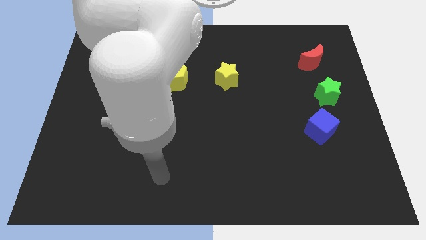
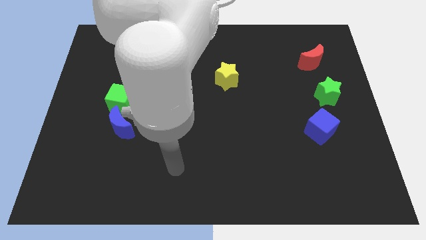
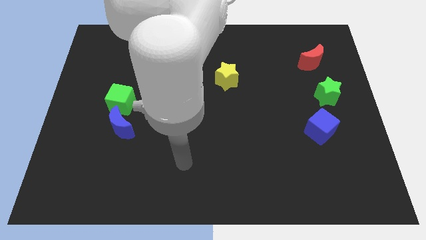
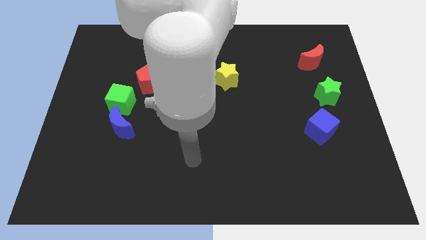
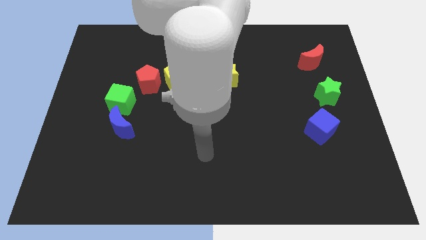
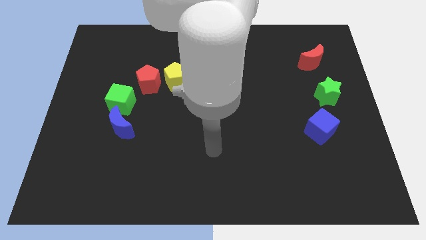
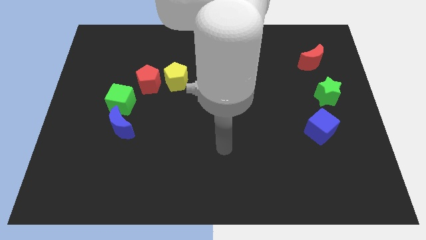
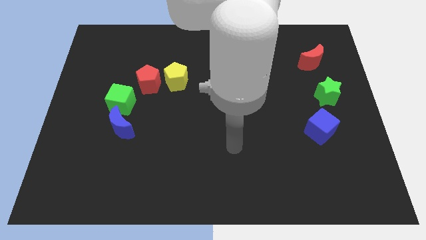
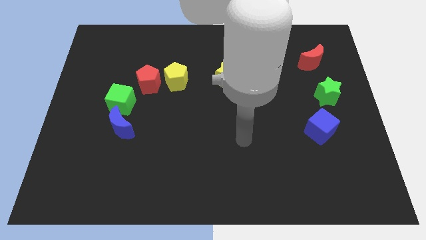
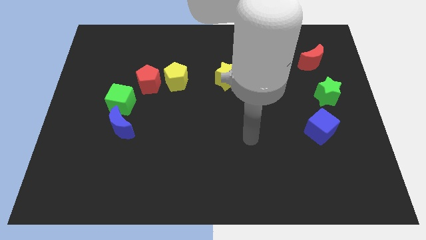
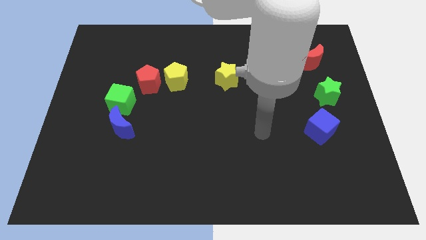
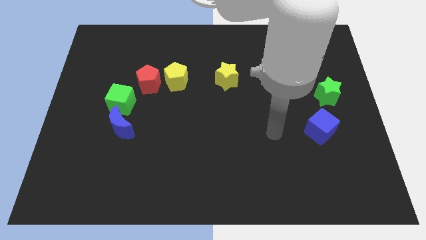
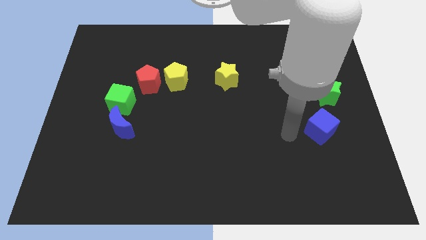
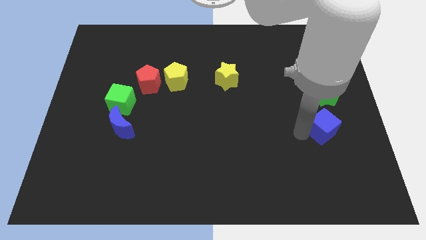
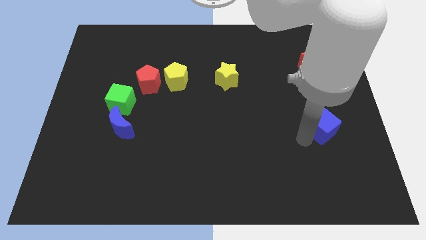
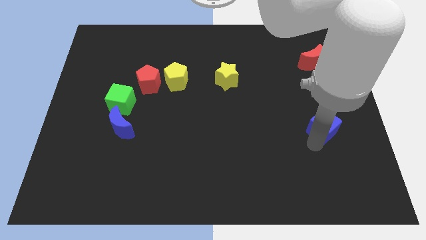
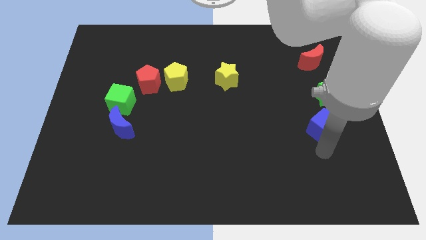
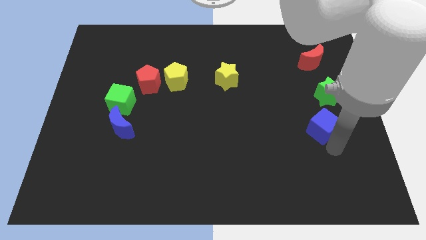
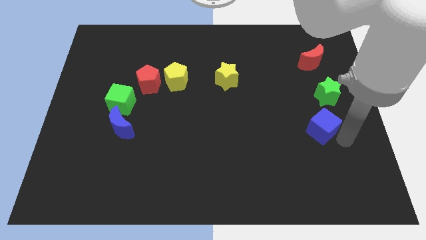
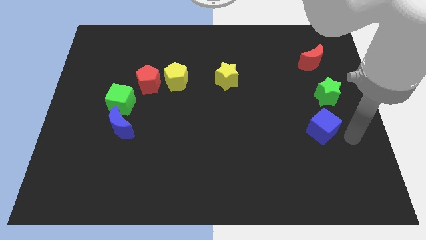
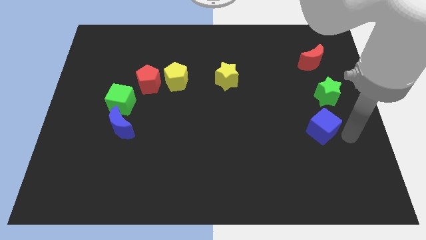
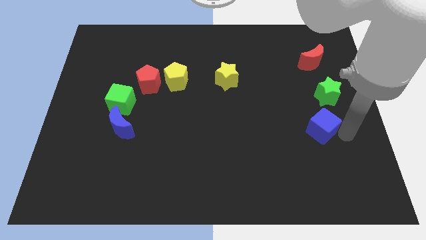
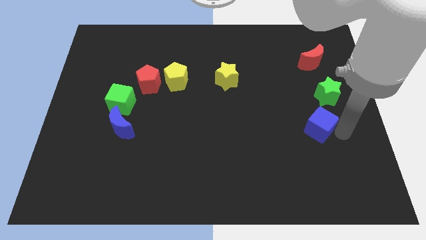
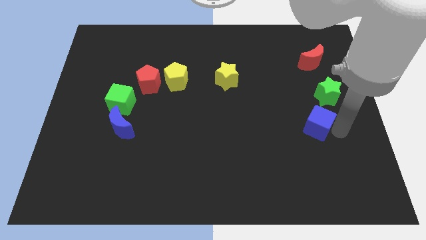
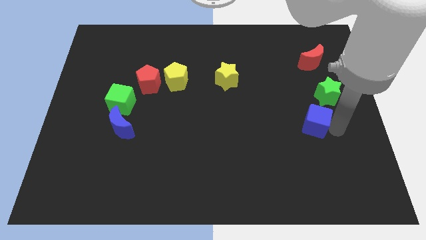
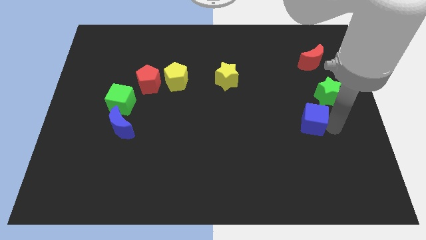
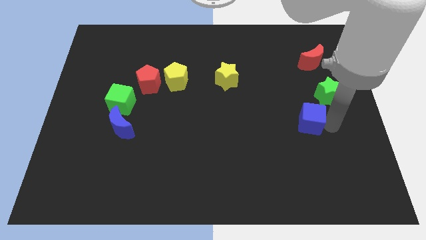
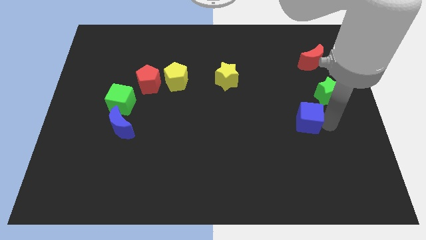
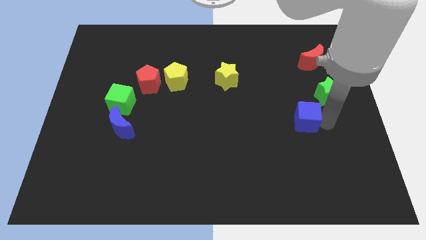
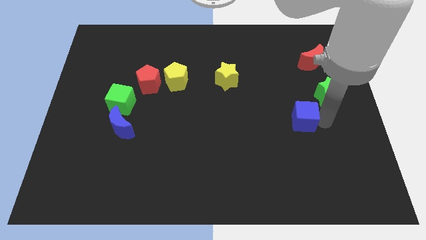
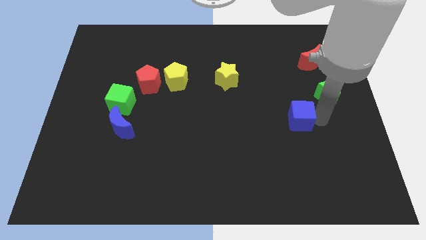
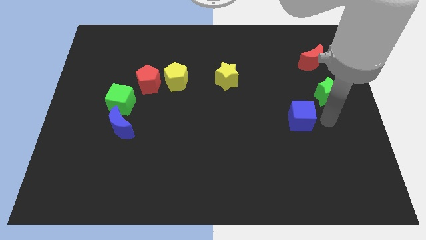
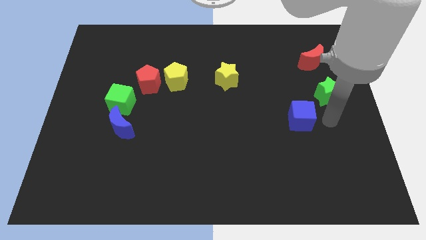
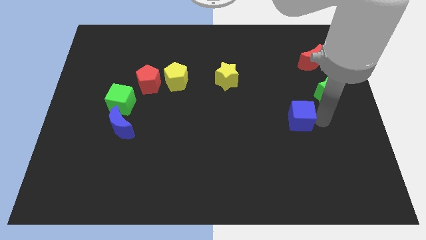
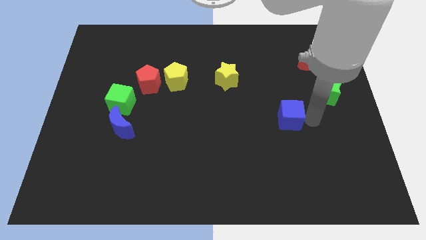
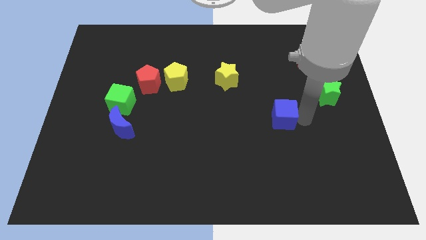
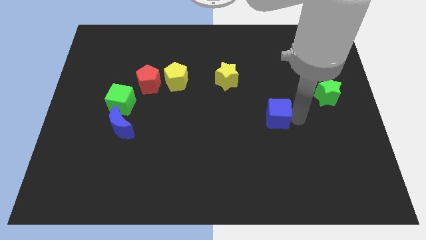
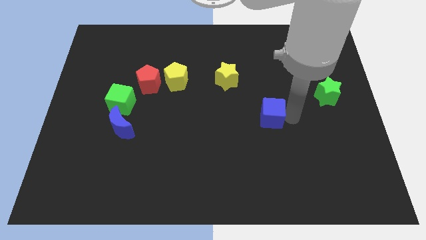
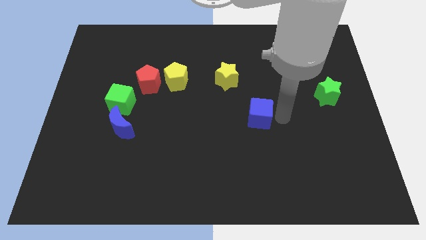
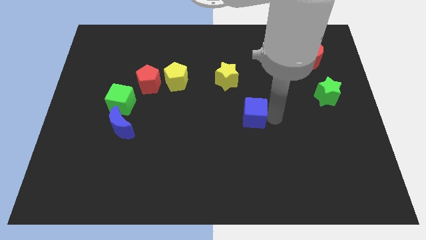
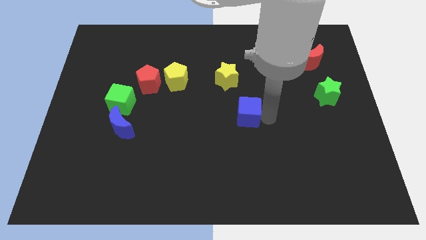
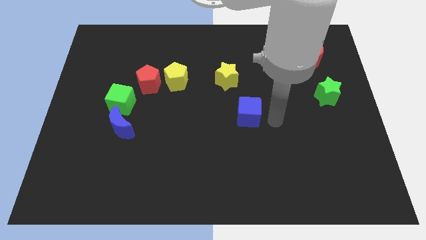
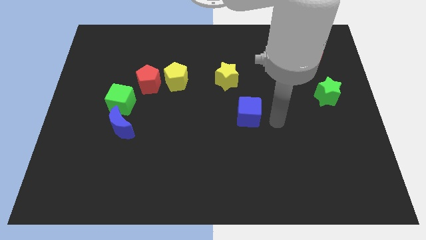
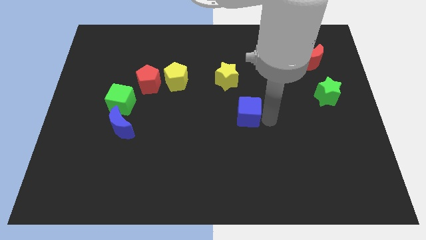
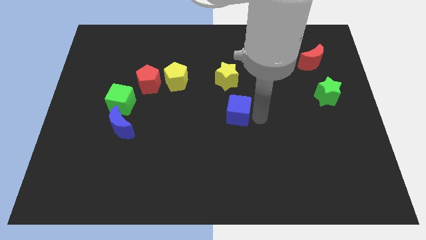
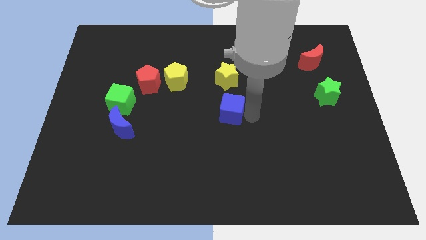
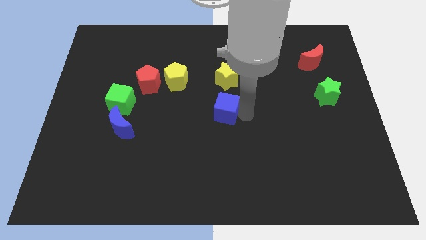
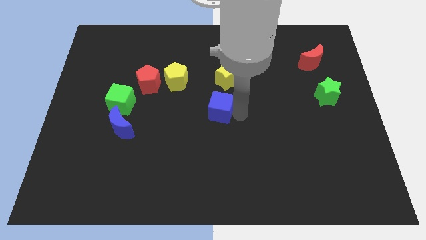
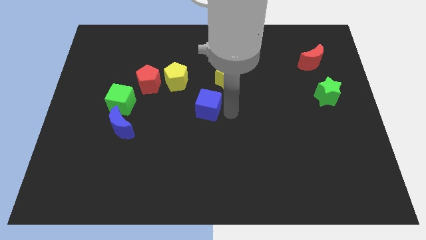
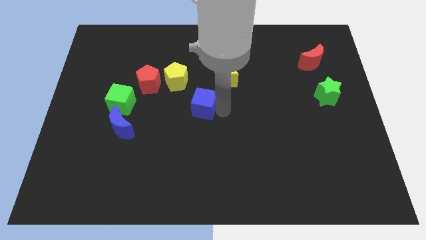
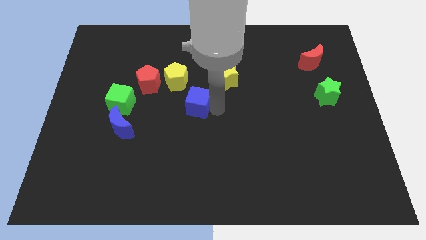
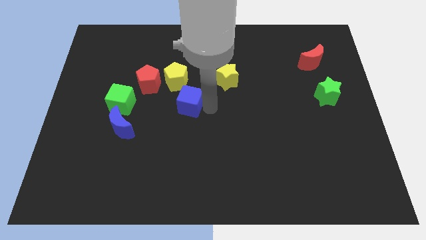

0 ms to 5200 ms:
put the blue cube diagonally down and to the right of the red pentagon

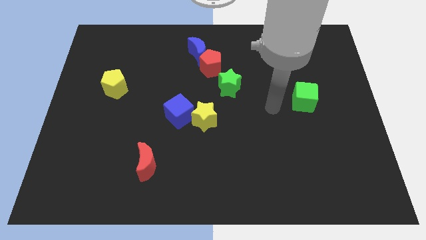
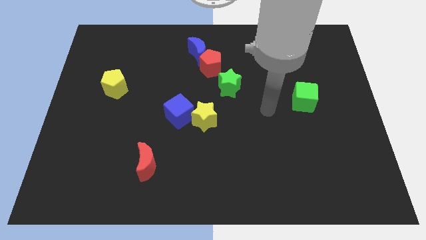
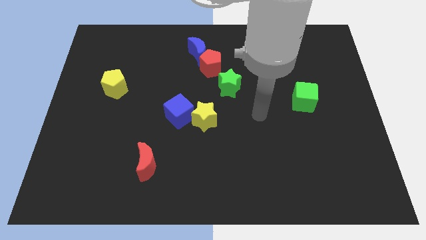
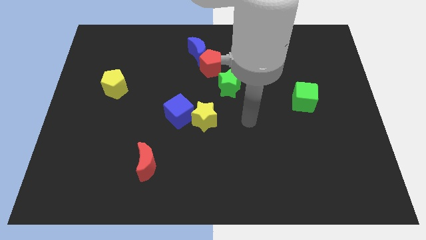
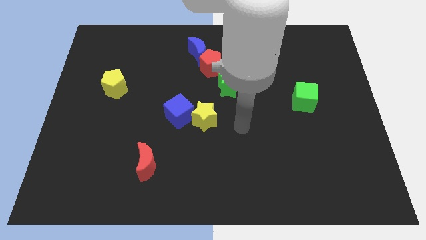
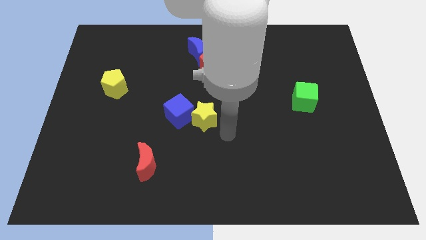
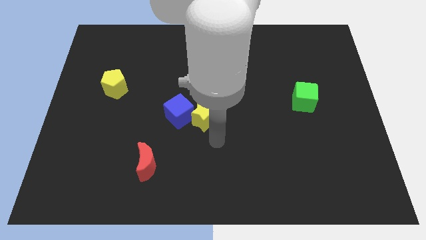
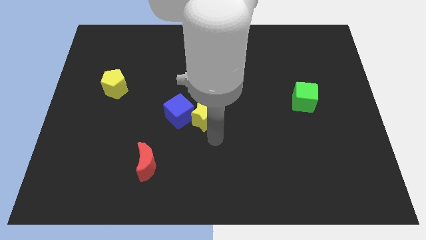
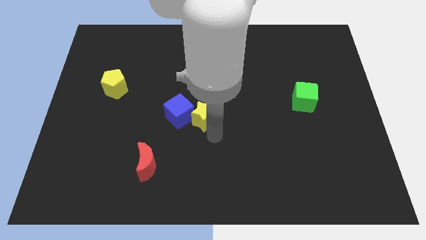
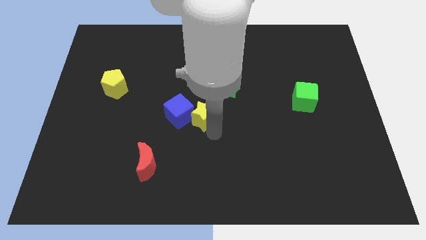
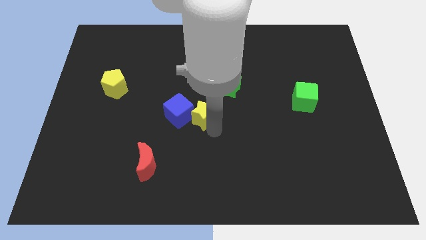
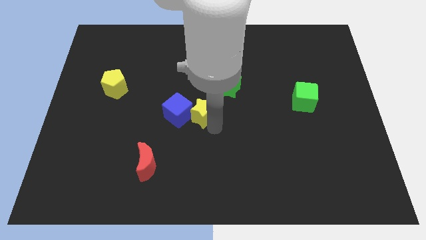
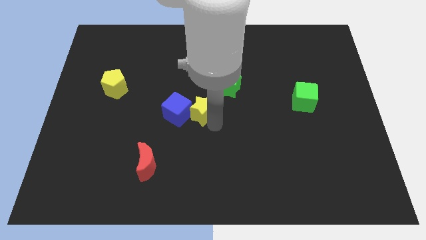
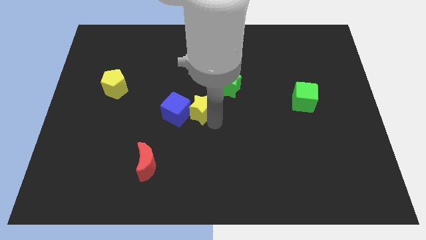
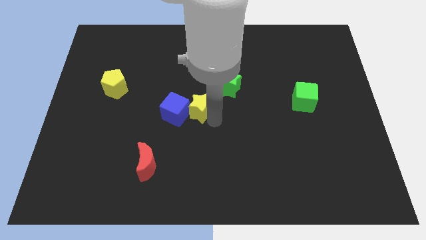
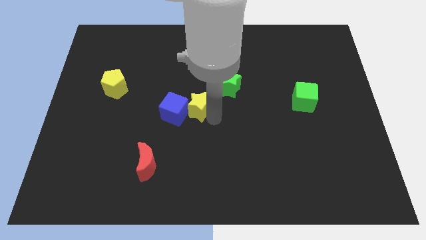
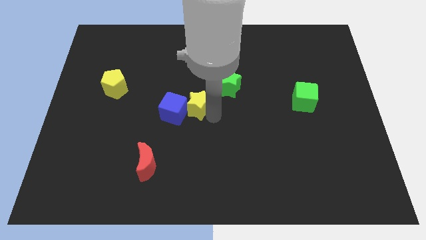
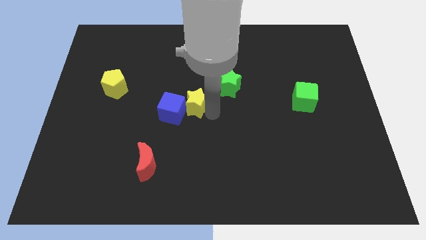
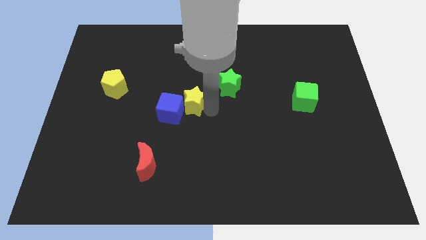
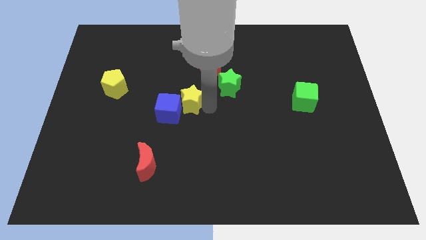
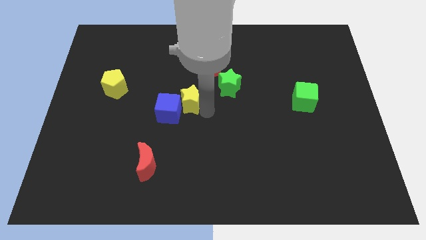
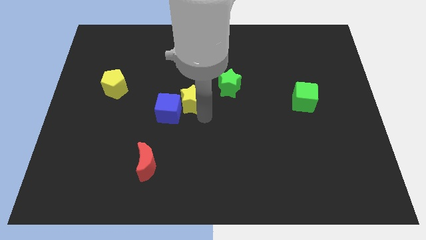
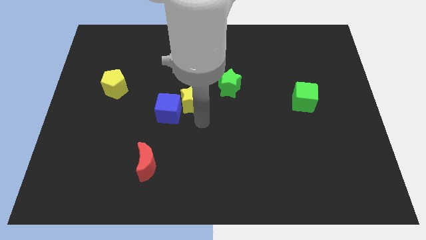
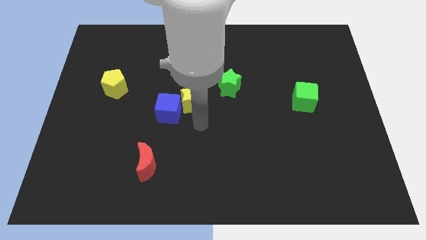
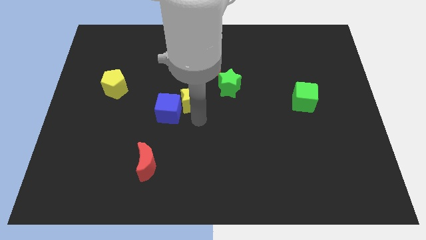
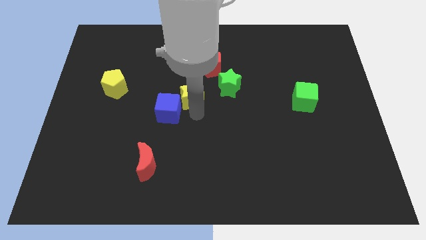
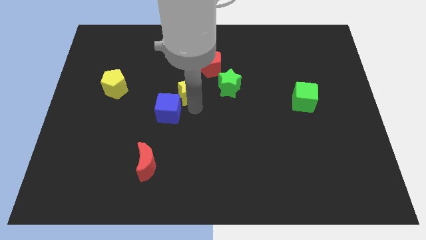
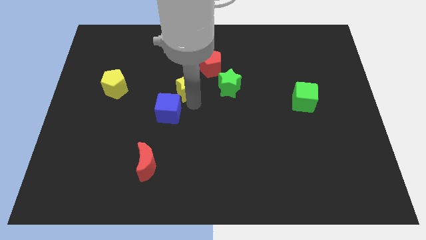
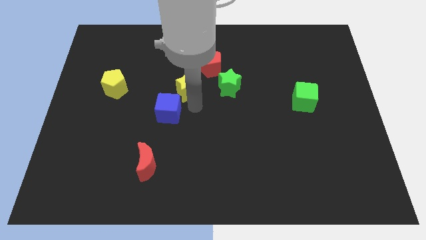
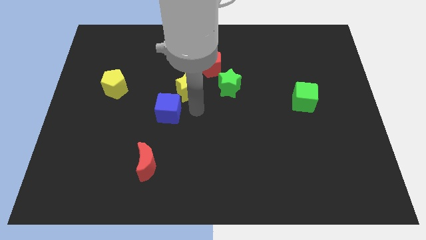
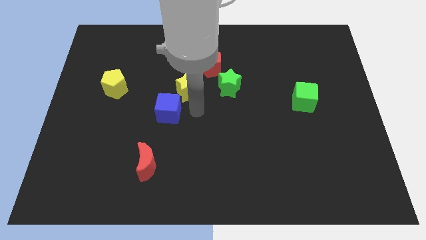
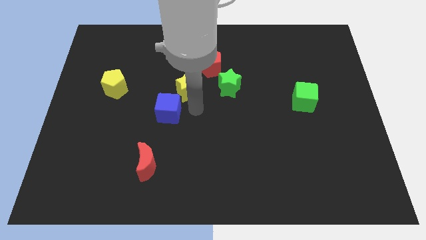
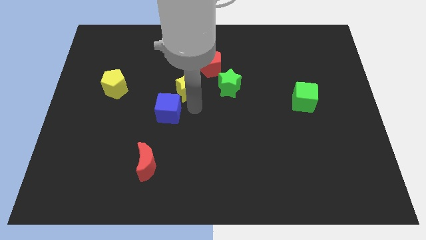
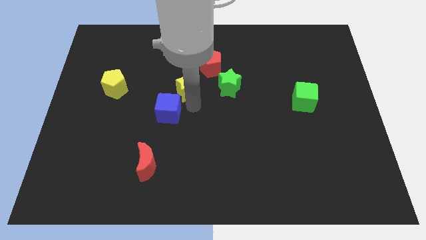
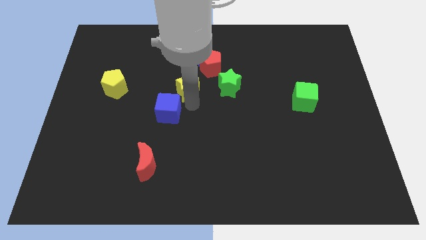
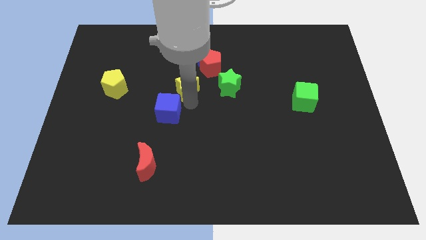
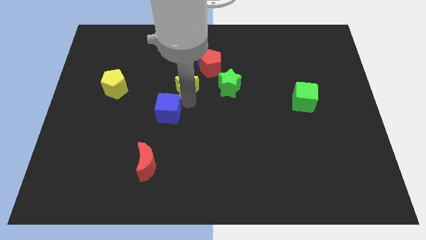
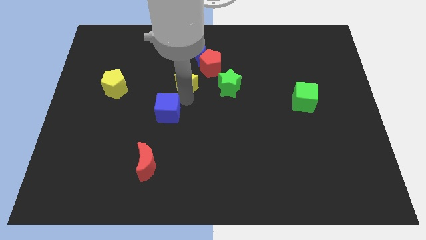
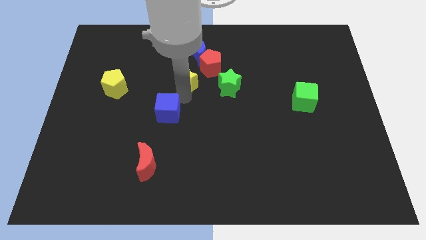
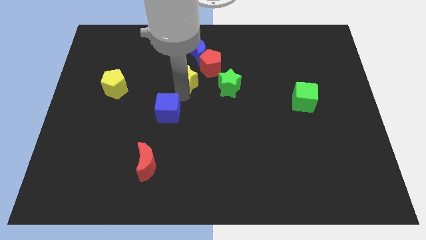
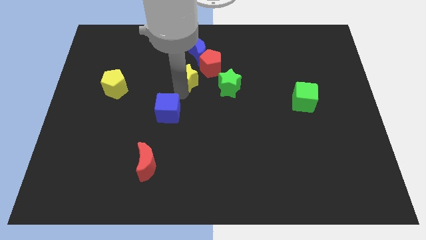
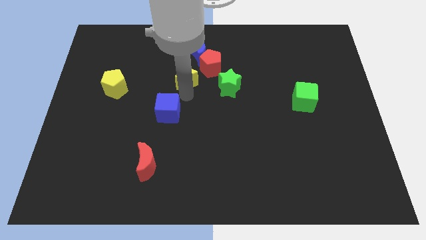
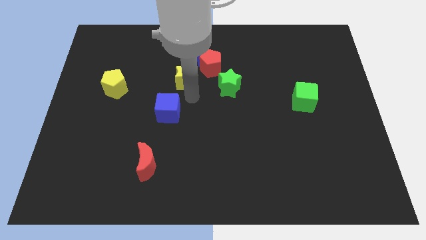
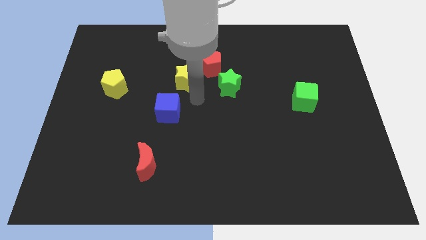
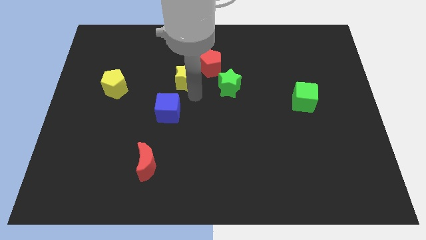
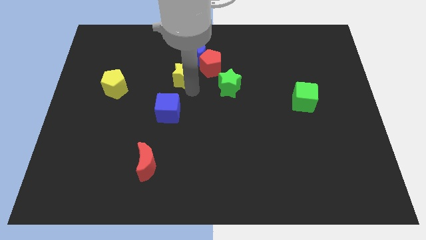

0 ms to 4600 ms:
slide the yellow star to the bottom left side of the blue moon
